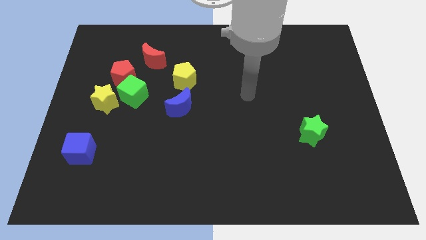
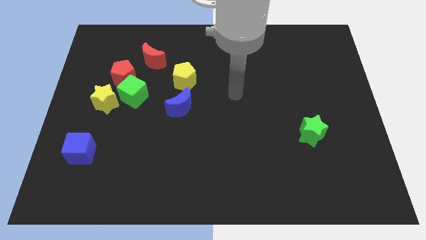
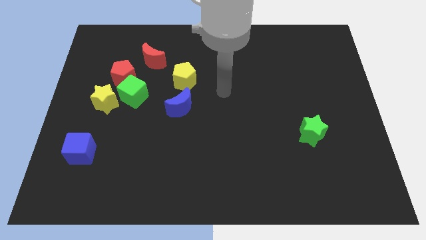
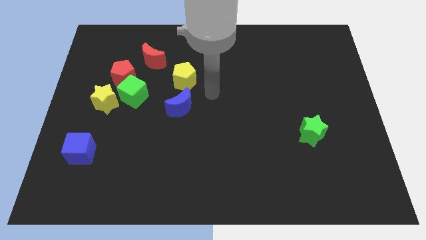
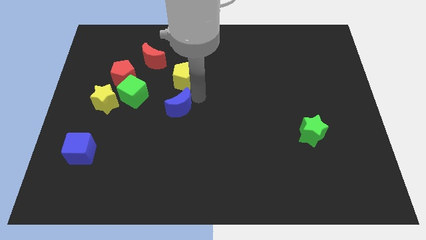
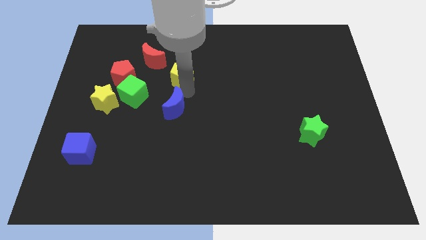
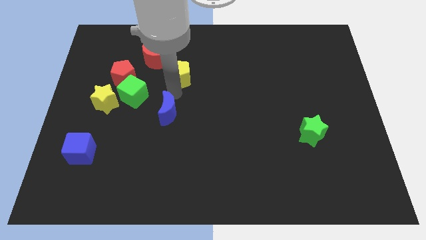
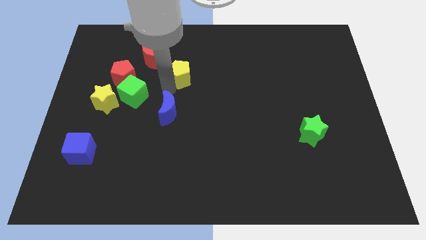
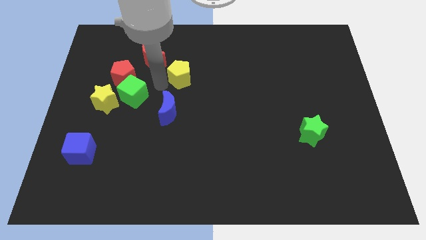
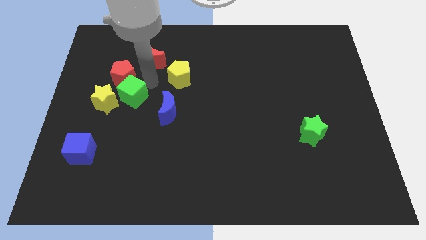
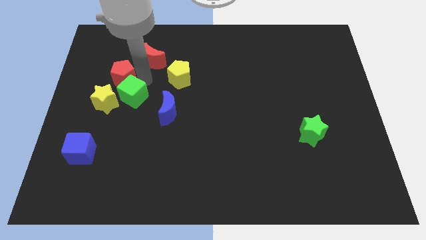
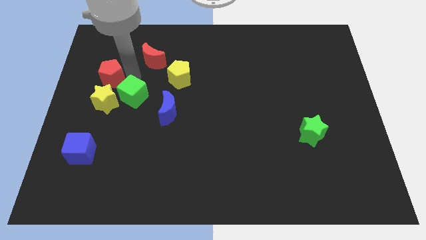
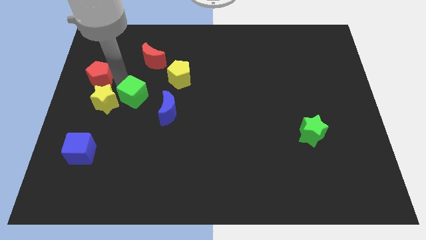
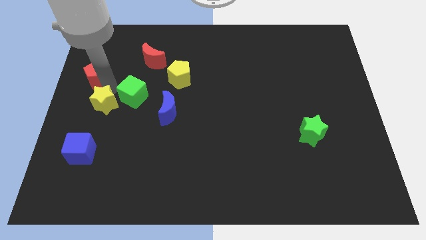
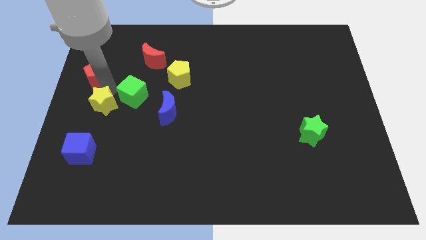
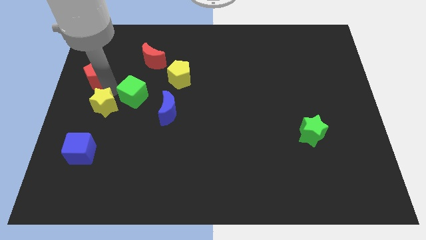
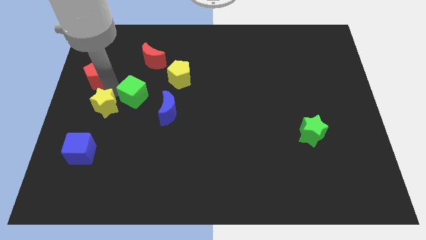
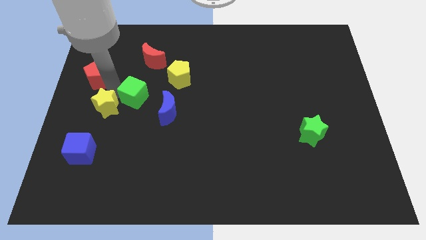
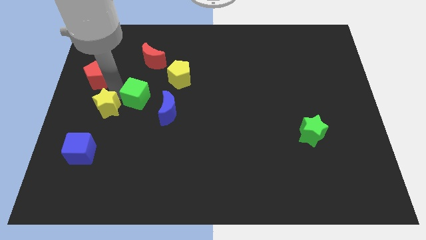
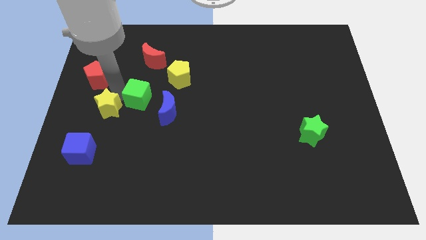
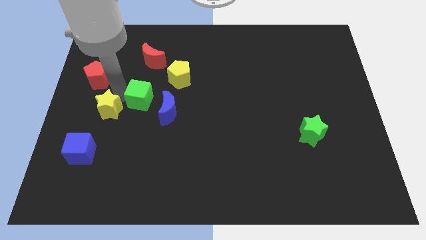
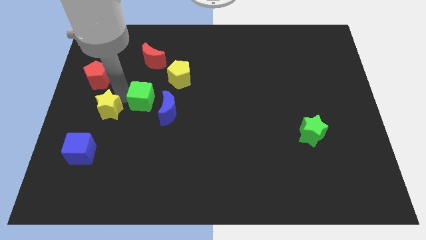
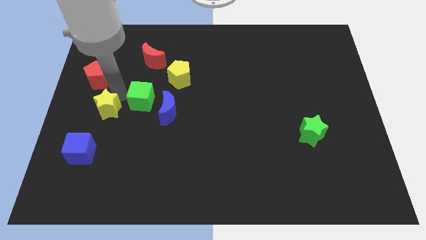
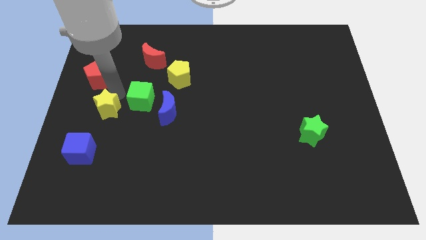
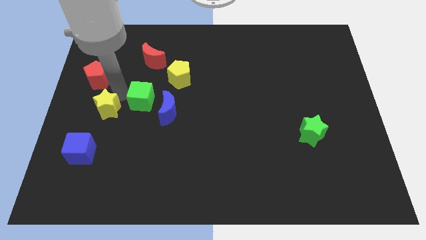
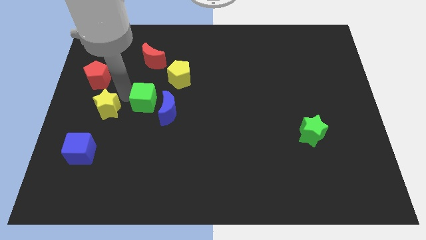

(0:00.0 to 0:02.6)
move the green cube away from the yellow star and red pentagon

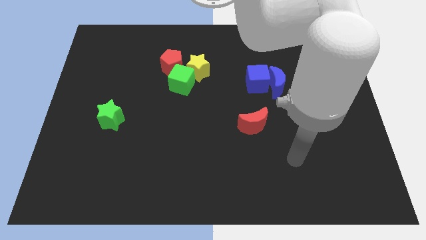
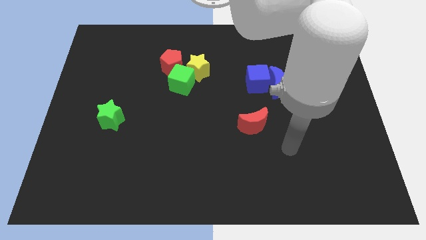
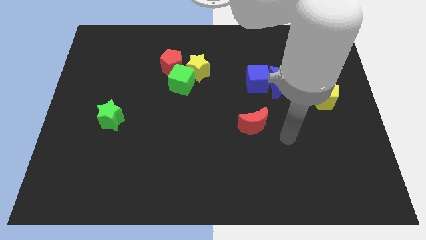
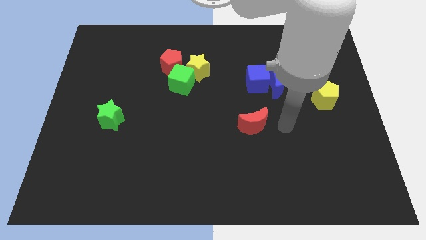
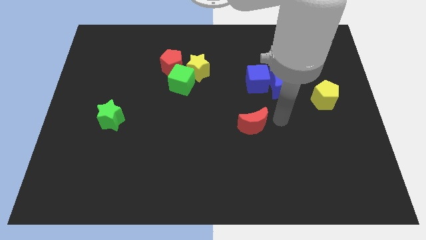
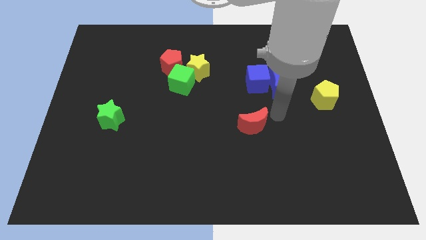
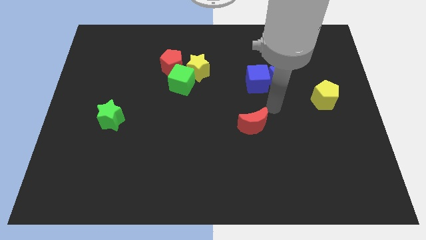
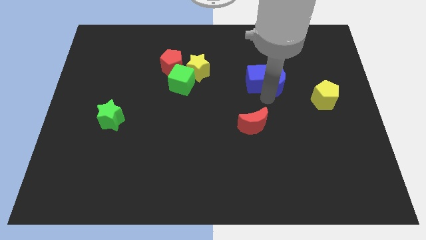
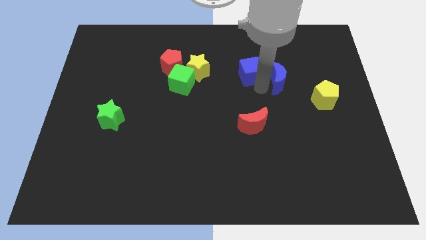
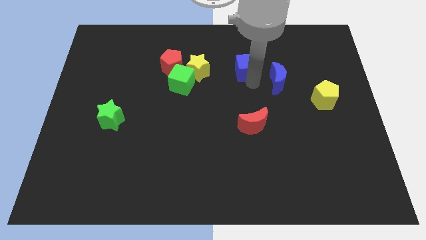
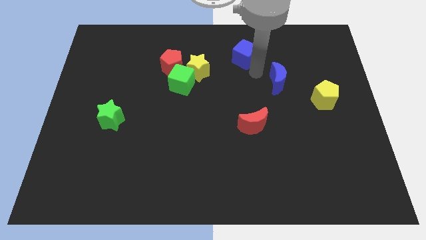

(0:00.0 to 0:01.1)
pull the blue moon apart from the blue cube

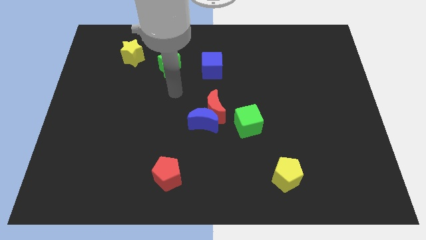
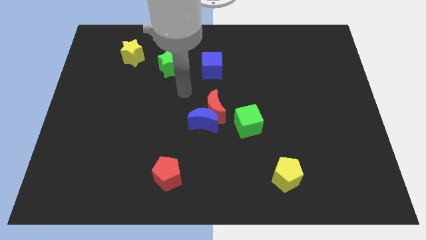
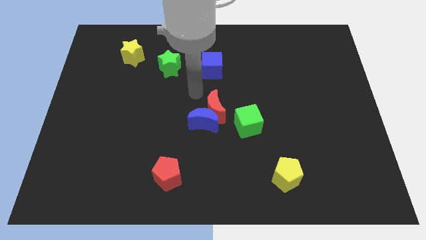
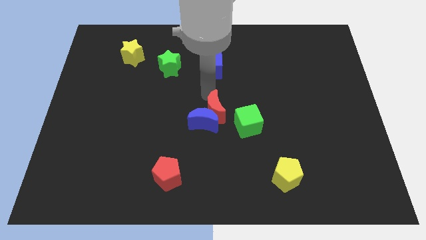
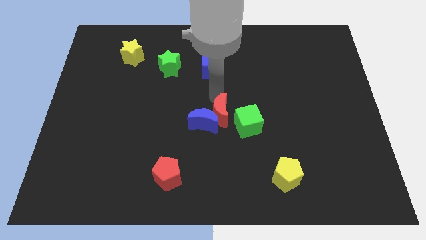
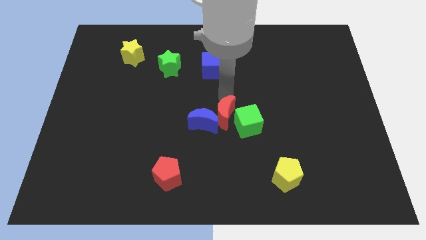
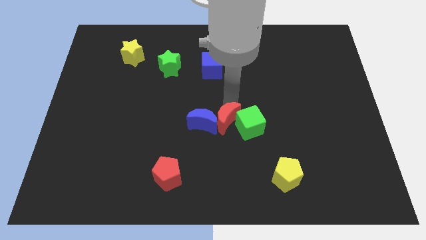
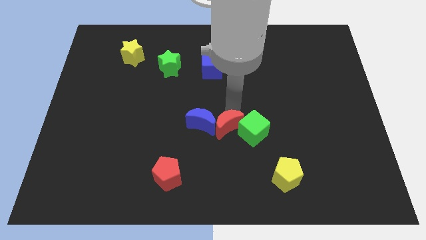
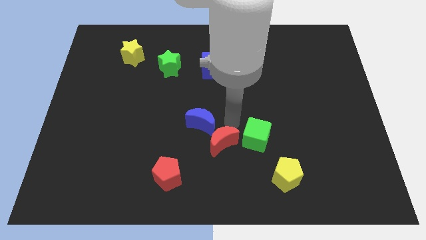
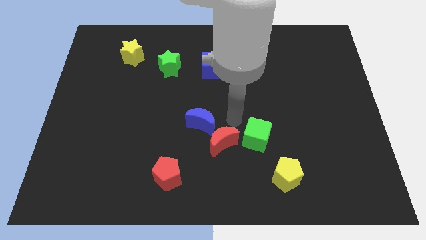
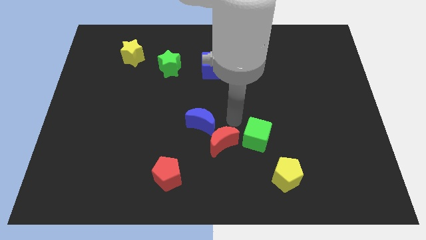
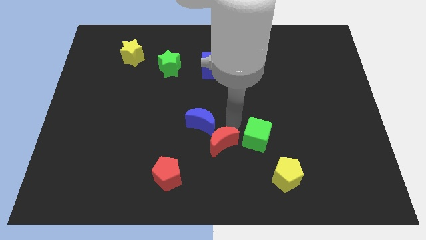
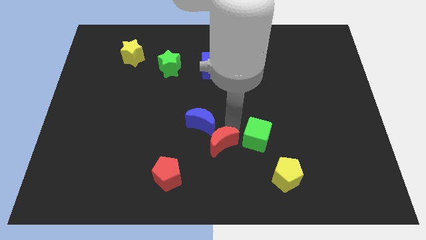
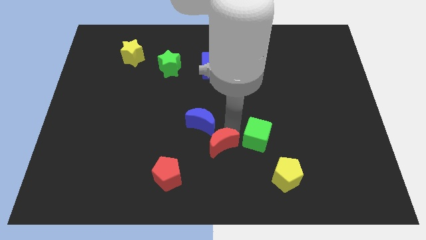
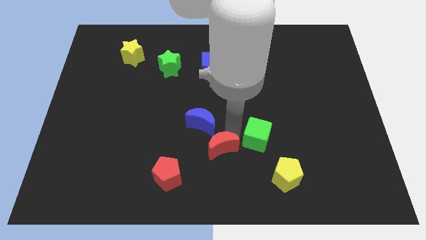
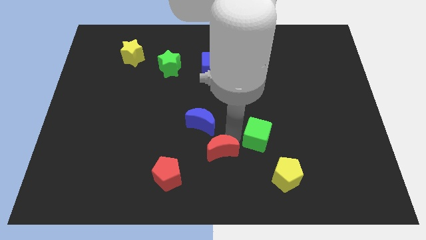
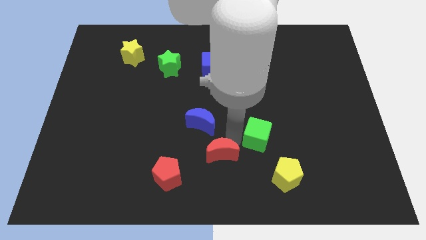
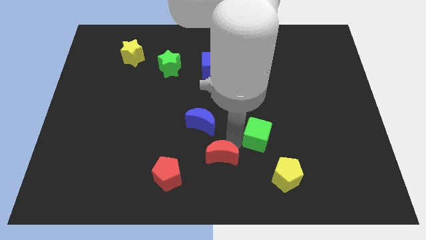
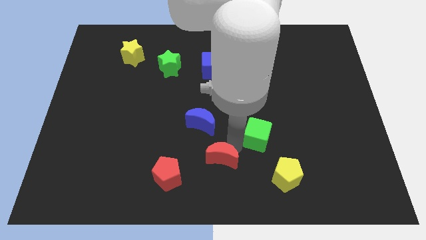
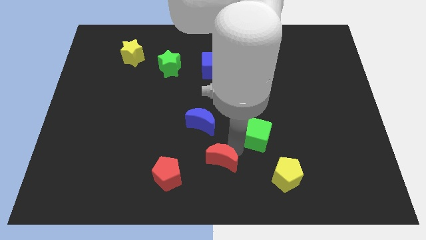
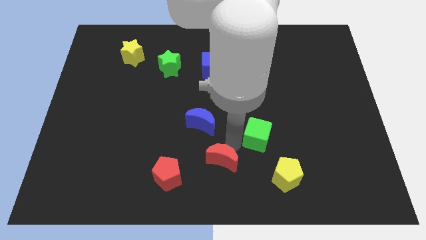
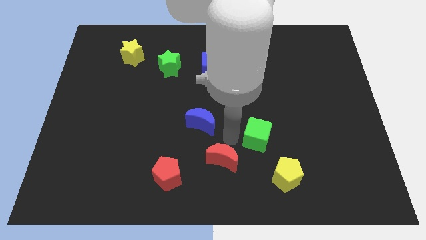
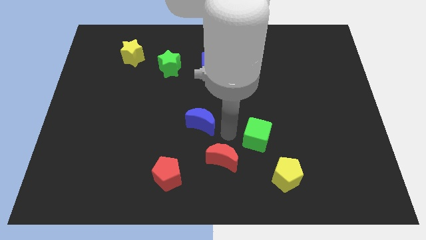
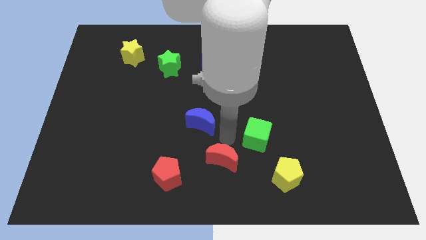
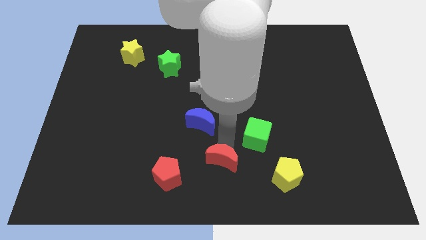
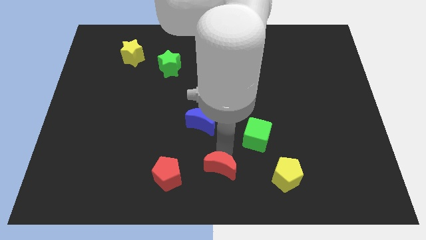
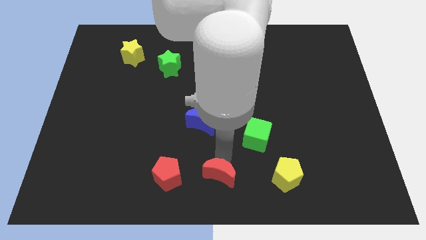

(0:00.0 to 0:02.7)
pull the red moon apart from the blue moon and green cube

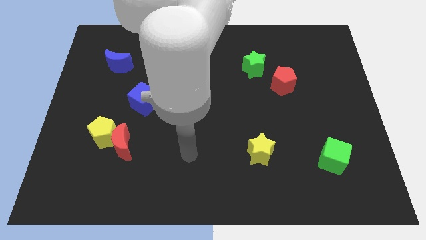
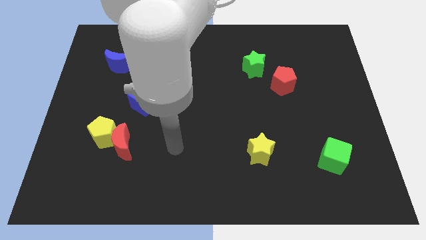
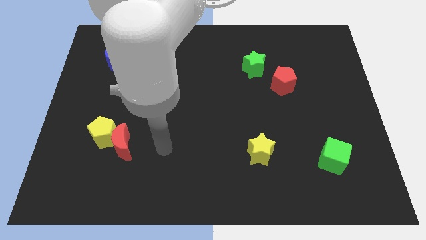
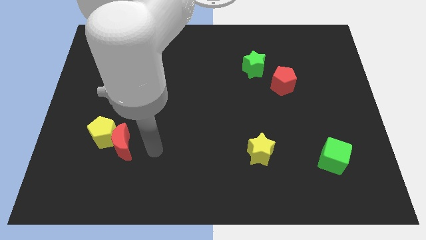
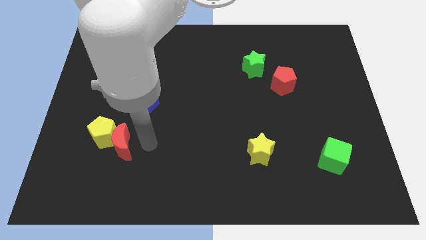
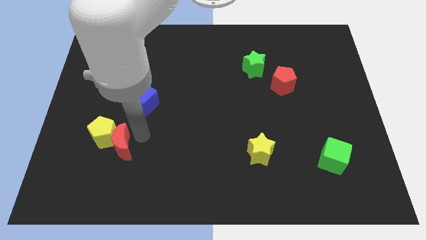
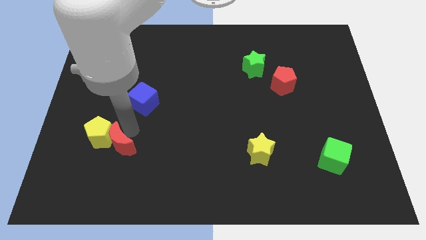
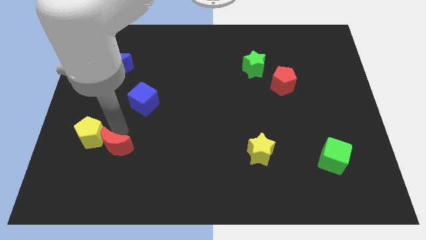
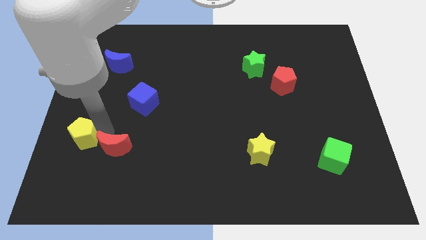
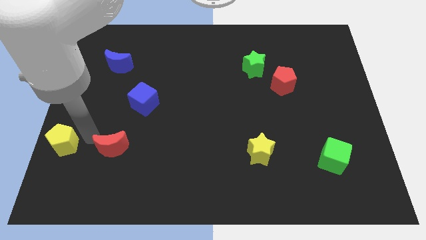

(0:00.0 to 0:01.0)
pull the red moon apart from the yellow pentagon

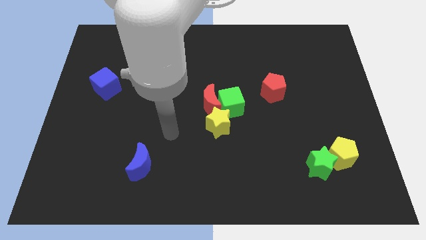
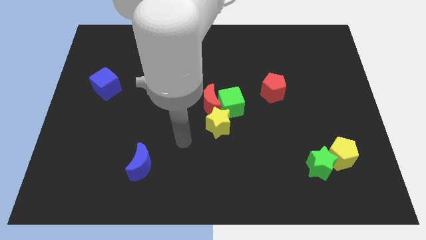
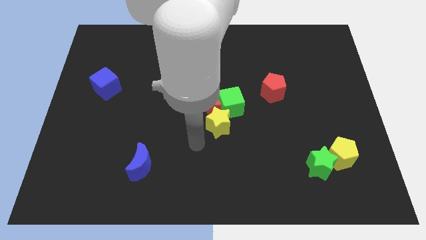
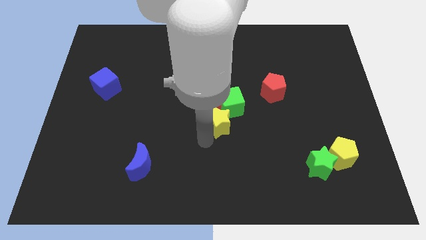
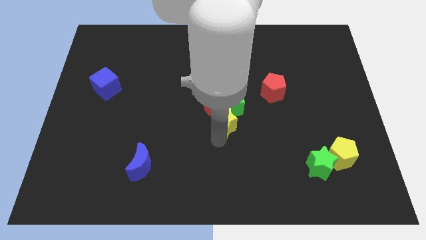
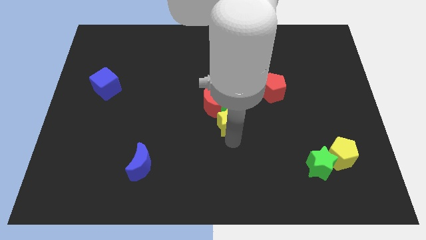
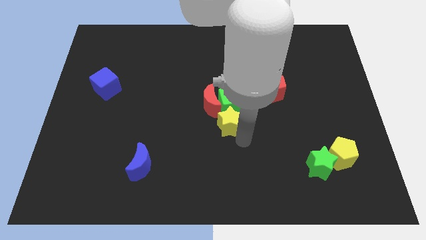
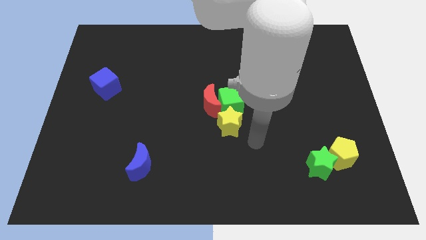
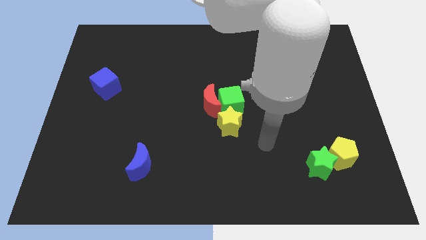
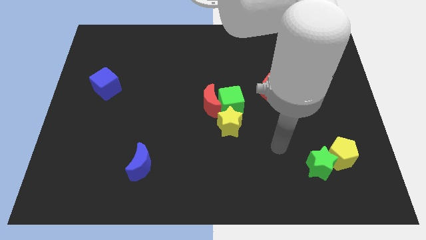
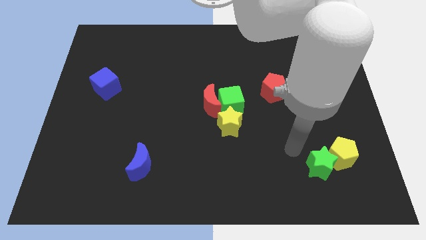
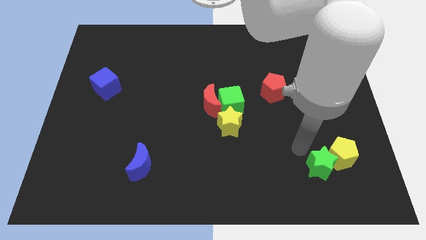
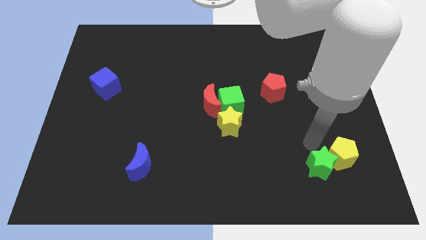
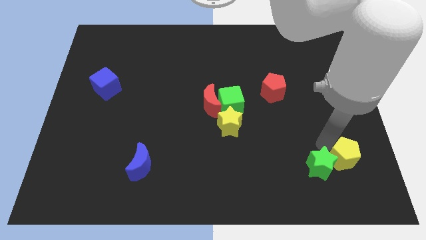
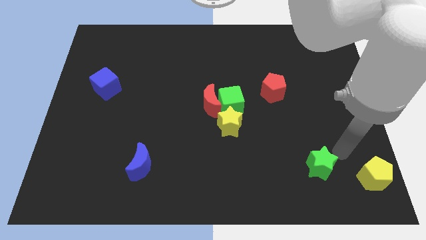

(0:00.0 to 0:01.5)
pull the green star apart from the yellow pentagon

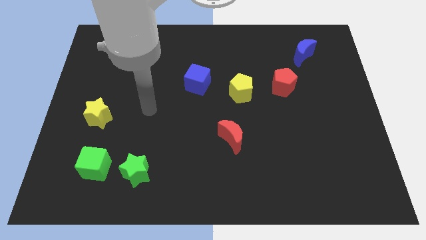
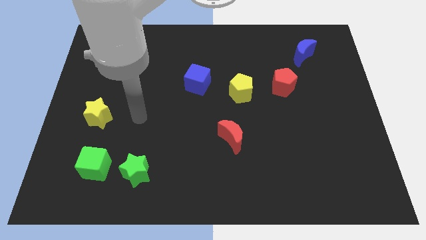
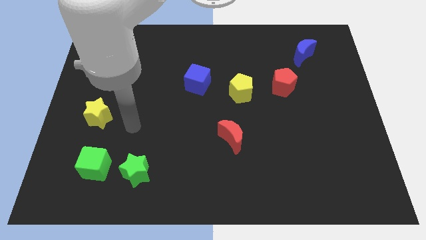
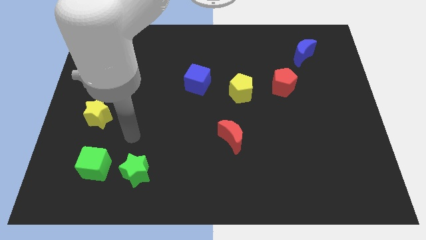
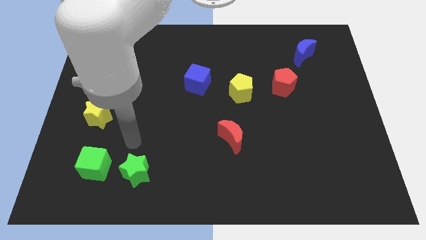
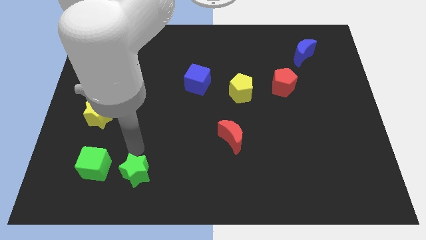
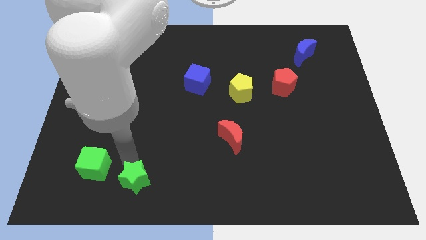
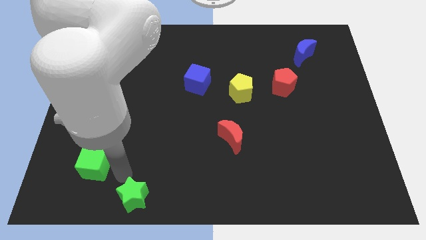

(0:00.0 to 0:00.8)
separate the green cube from the green star
